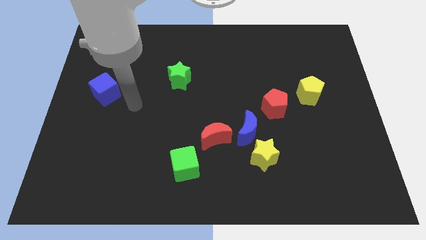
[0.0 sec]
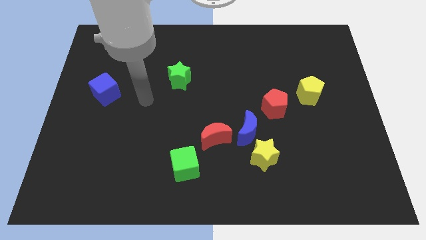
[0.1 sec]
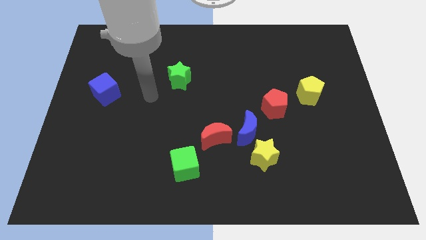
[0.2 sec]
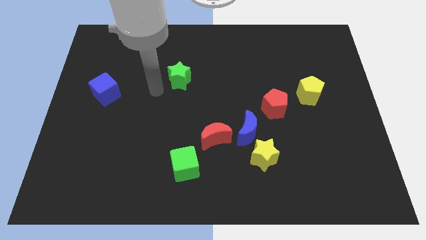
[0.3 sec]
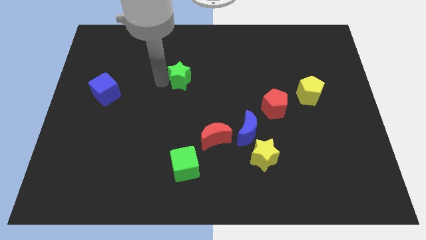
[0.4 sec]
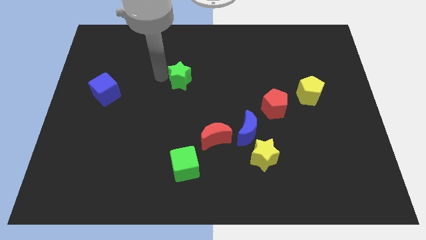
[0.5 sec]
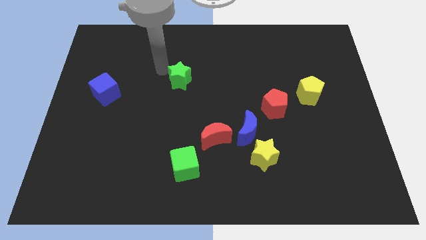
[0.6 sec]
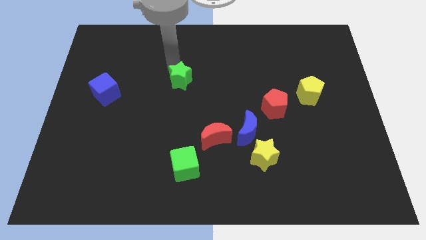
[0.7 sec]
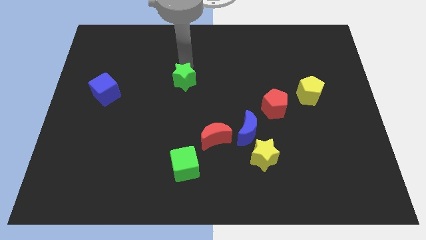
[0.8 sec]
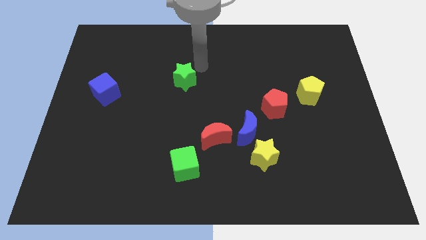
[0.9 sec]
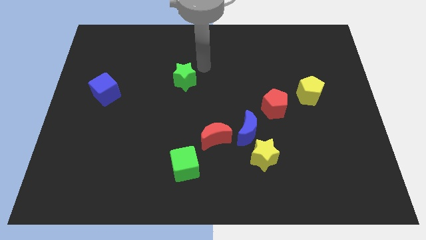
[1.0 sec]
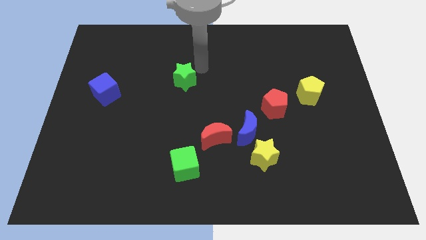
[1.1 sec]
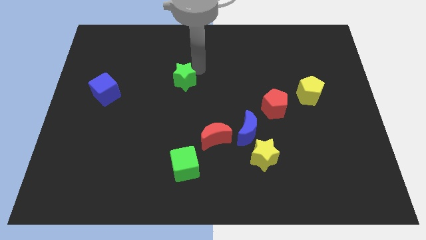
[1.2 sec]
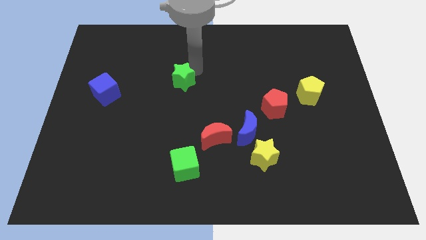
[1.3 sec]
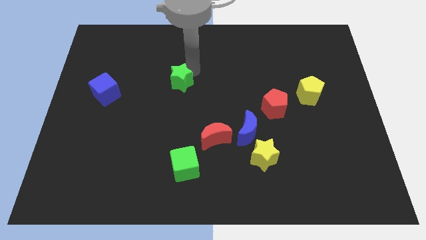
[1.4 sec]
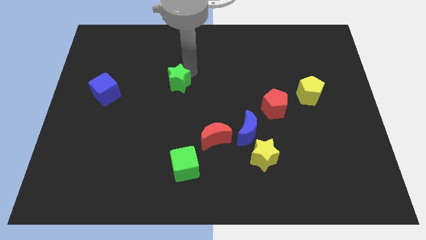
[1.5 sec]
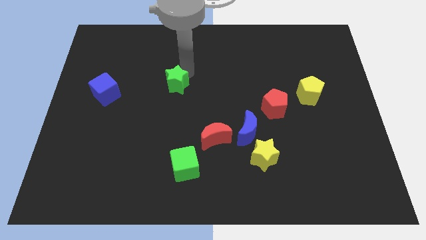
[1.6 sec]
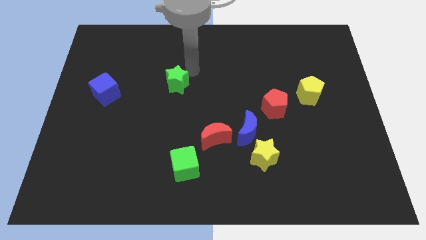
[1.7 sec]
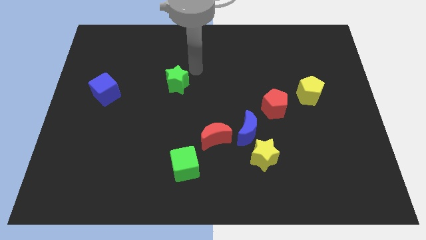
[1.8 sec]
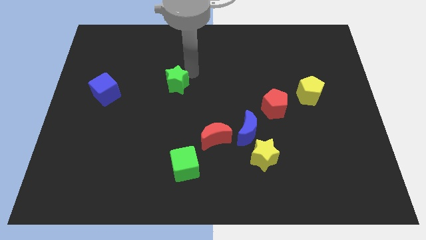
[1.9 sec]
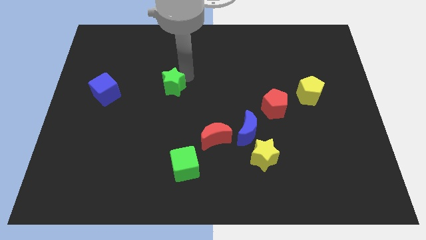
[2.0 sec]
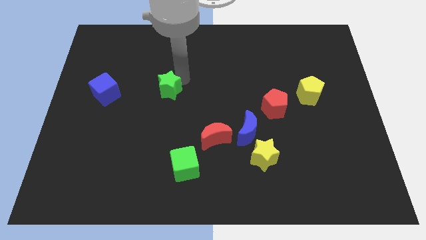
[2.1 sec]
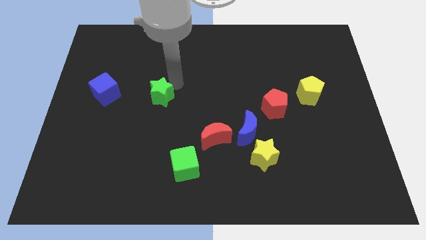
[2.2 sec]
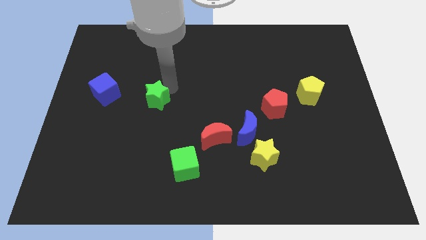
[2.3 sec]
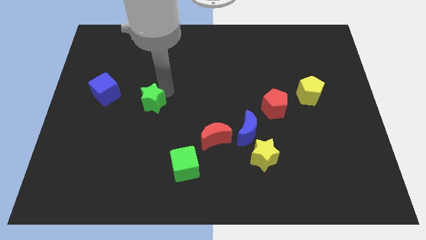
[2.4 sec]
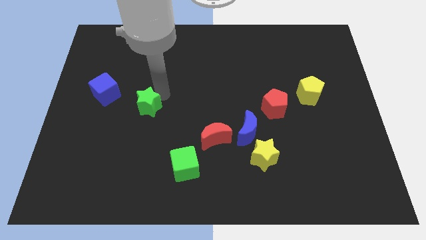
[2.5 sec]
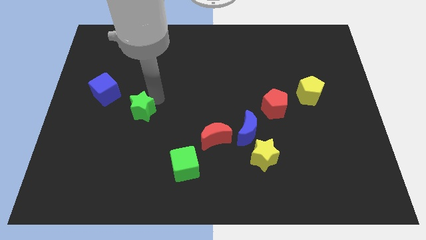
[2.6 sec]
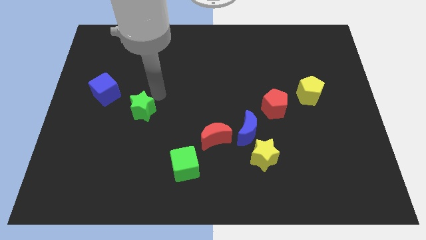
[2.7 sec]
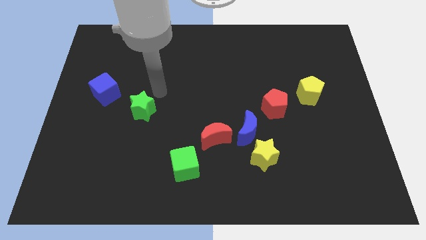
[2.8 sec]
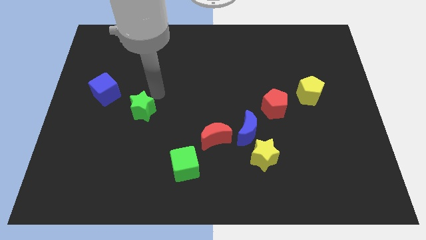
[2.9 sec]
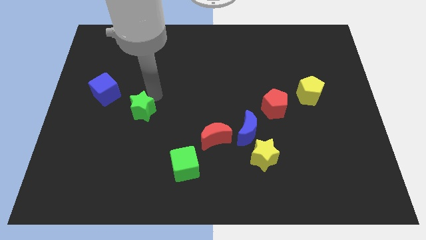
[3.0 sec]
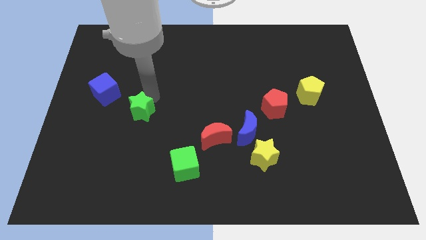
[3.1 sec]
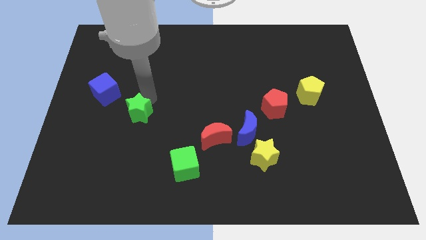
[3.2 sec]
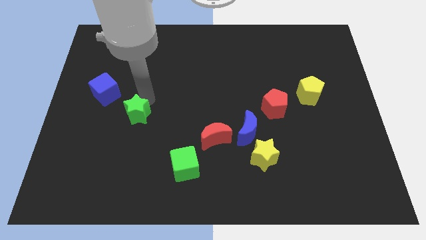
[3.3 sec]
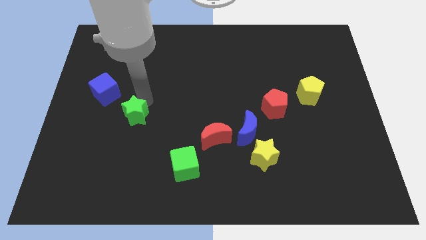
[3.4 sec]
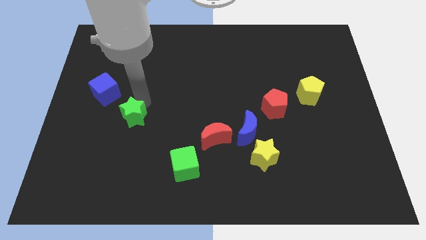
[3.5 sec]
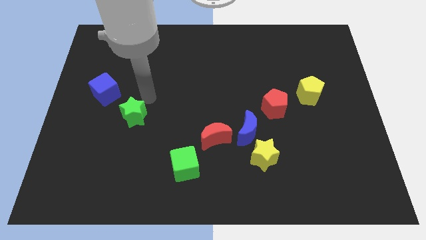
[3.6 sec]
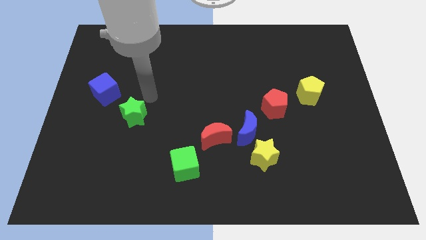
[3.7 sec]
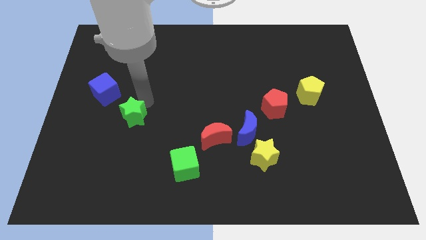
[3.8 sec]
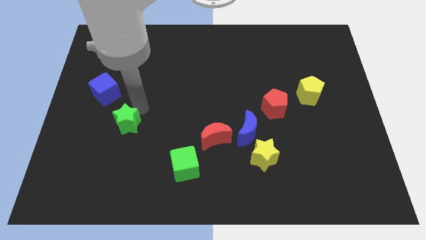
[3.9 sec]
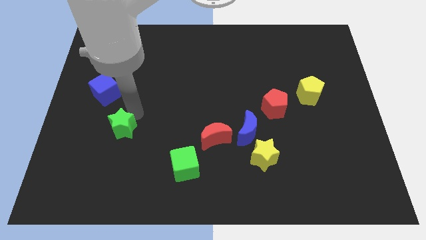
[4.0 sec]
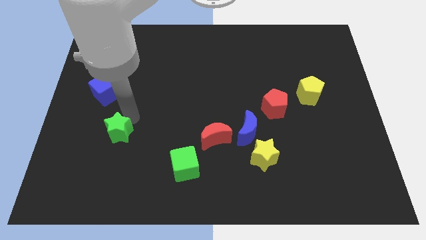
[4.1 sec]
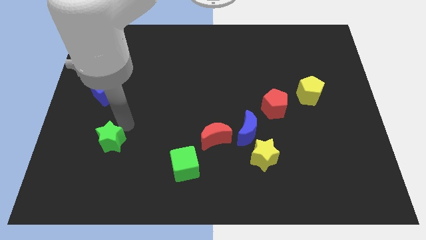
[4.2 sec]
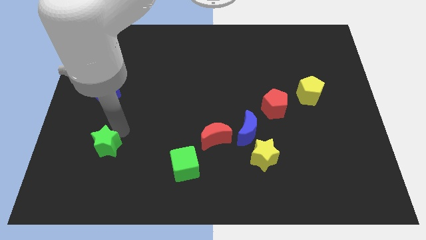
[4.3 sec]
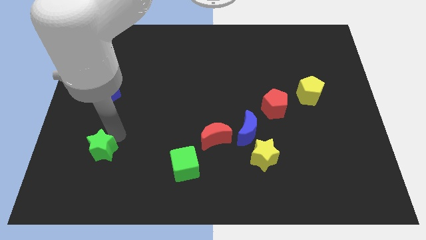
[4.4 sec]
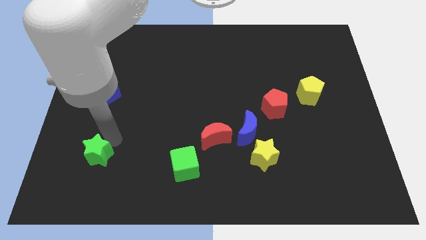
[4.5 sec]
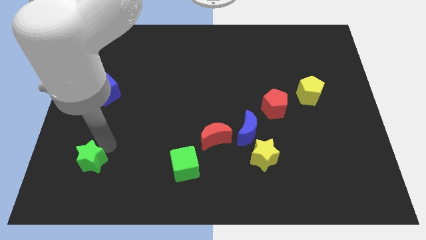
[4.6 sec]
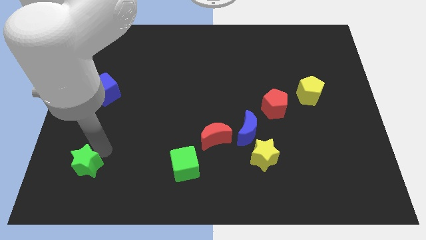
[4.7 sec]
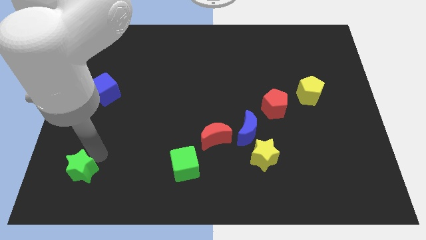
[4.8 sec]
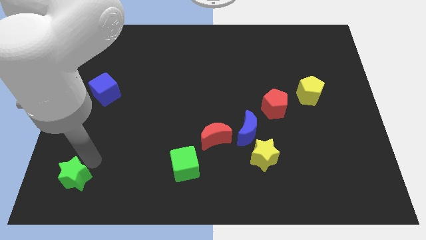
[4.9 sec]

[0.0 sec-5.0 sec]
put the green star to the bottom left corner

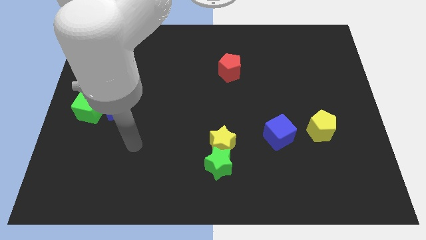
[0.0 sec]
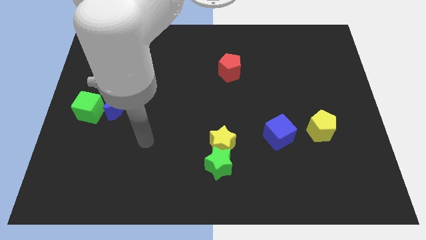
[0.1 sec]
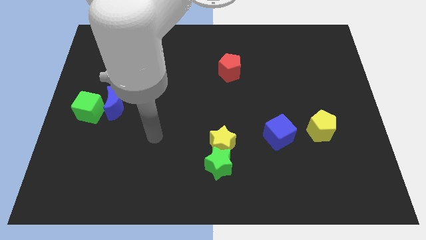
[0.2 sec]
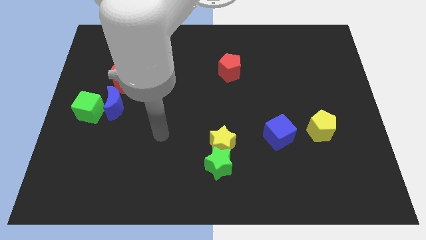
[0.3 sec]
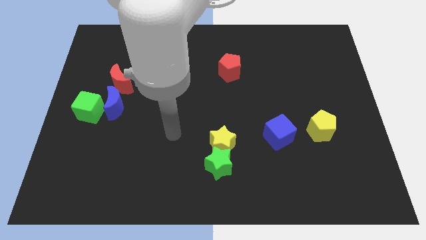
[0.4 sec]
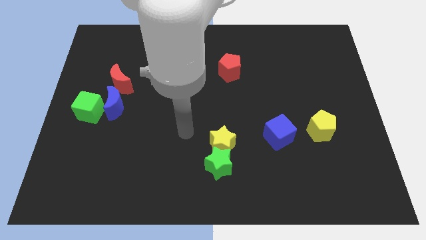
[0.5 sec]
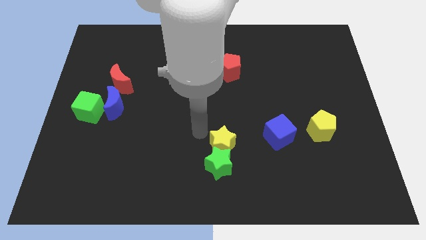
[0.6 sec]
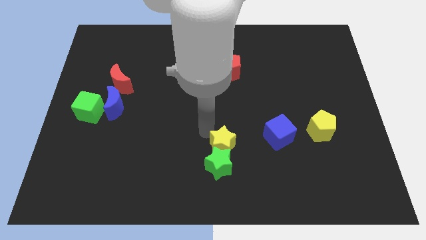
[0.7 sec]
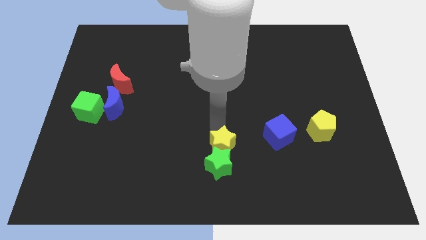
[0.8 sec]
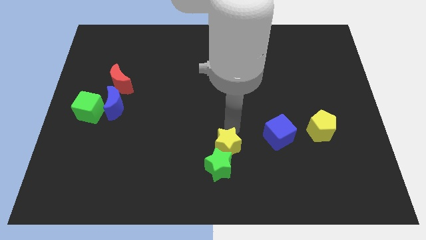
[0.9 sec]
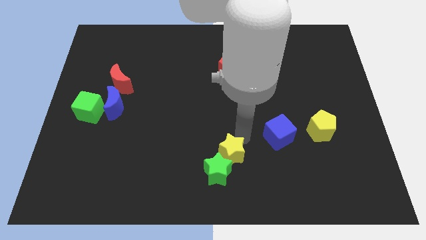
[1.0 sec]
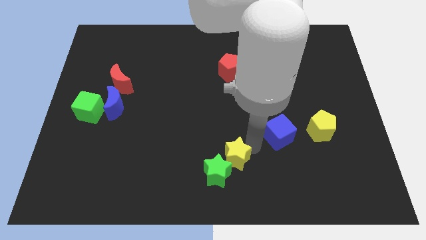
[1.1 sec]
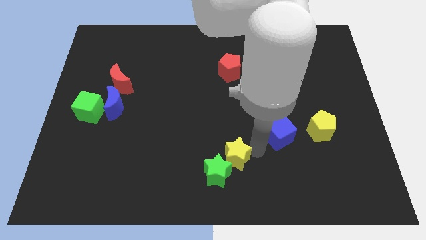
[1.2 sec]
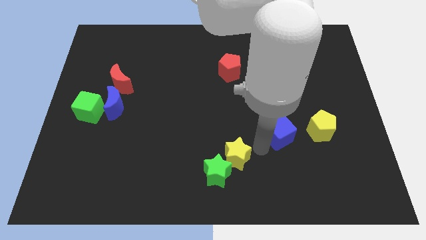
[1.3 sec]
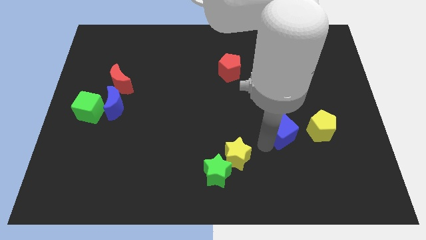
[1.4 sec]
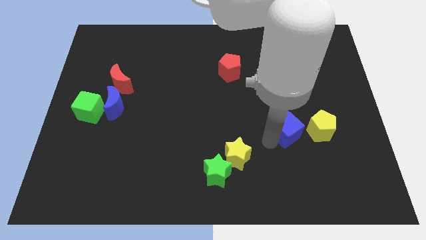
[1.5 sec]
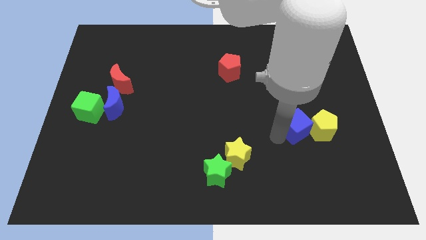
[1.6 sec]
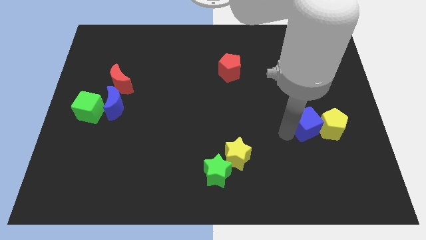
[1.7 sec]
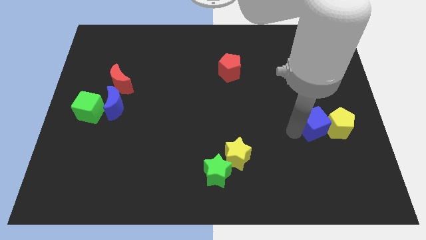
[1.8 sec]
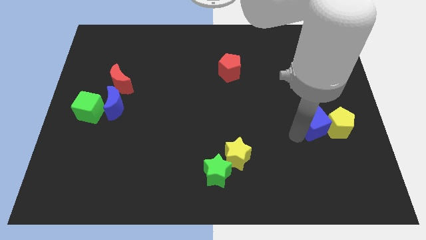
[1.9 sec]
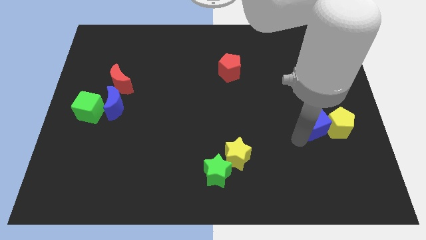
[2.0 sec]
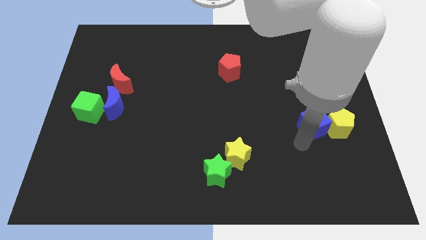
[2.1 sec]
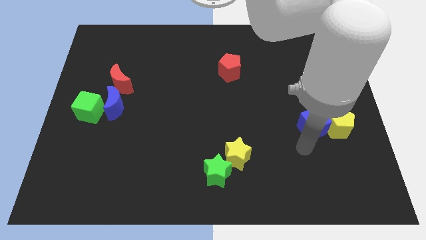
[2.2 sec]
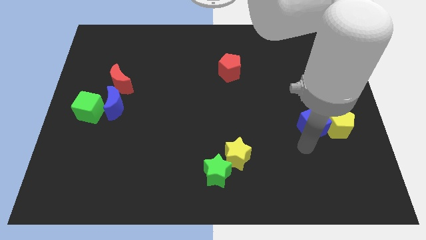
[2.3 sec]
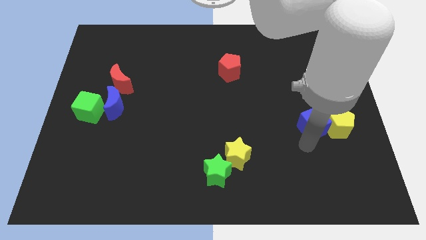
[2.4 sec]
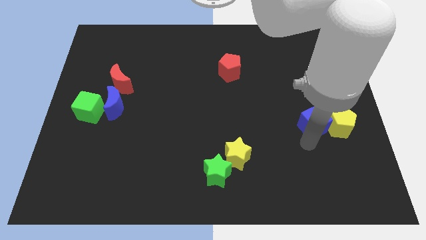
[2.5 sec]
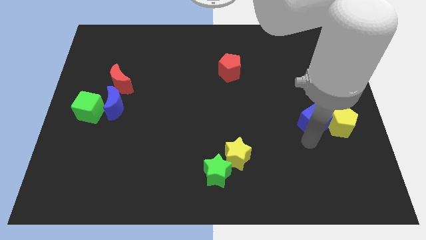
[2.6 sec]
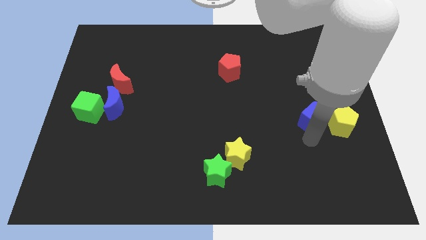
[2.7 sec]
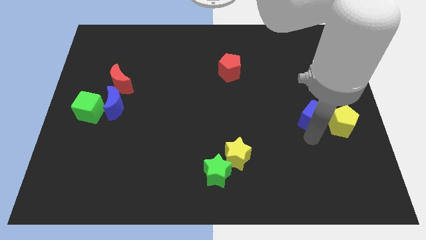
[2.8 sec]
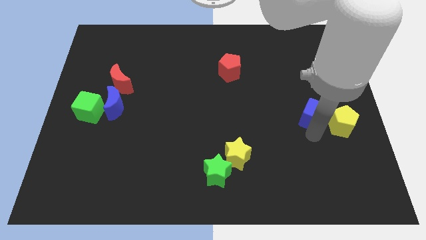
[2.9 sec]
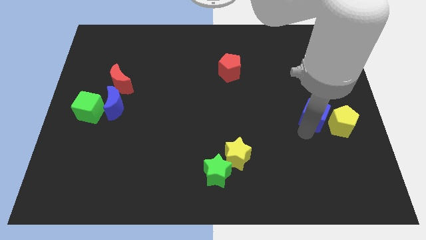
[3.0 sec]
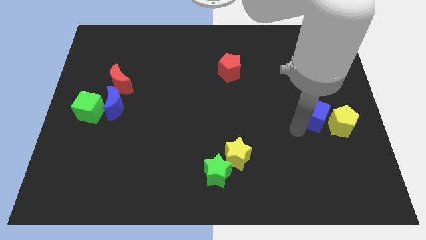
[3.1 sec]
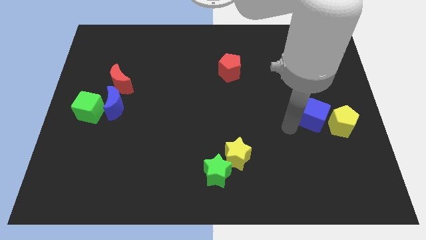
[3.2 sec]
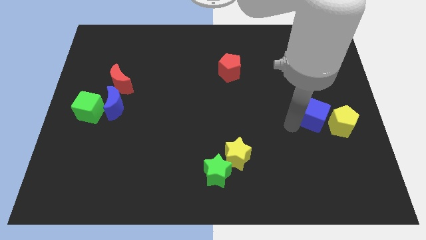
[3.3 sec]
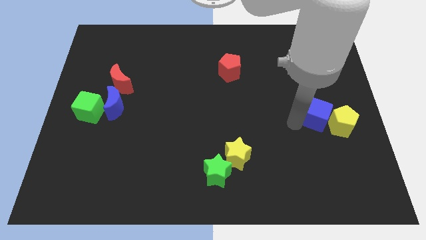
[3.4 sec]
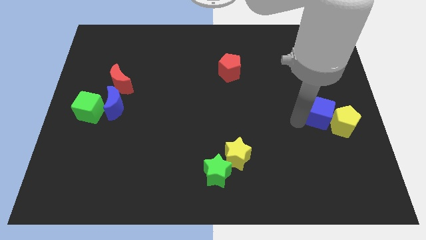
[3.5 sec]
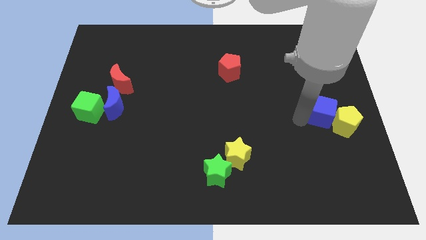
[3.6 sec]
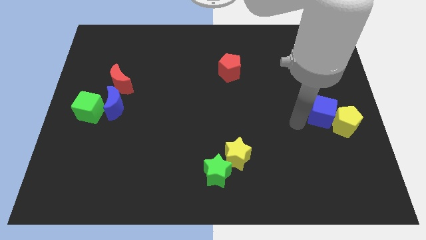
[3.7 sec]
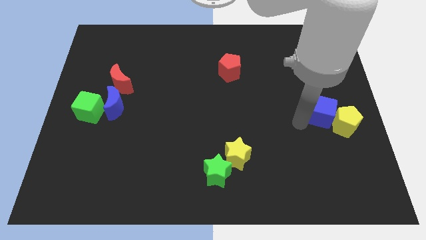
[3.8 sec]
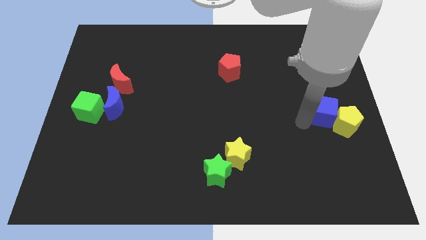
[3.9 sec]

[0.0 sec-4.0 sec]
move the blue cube to the right side of the board
